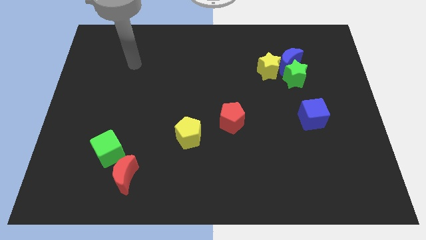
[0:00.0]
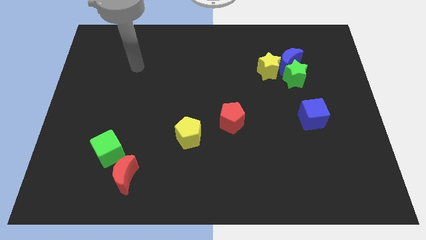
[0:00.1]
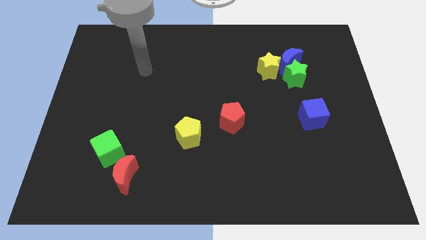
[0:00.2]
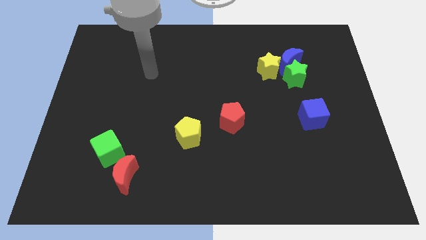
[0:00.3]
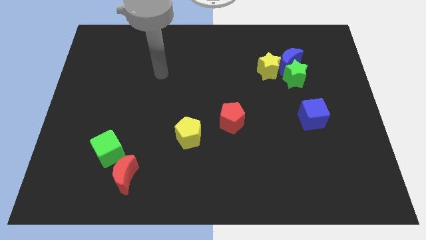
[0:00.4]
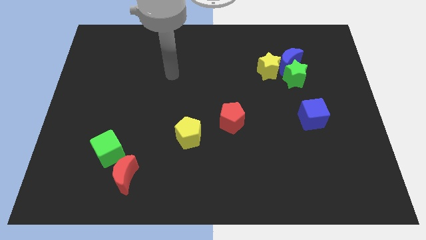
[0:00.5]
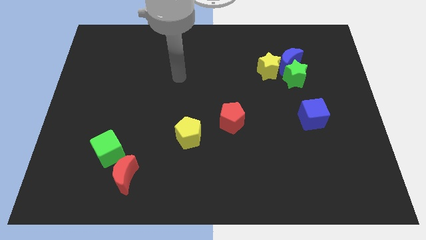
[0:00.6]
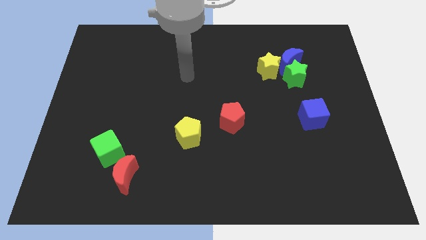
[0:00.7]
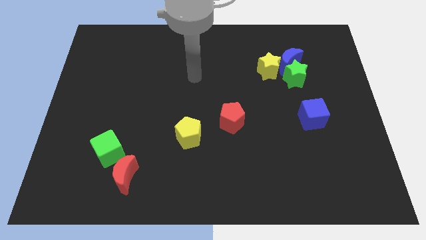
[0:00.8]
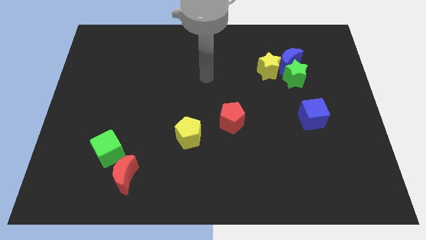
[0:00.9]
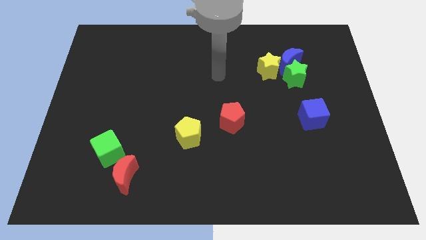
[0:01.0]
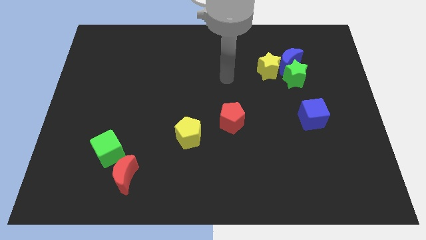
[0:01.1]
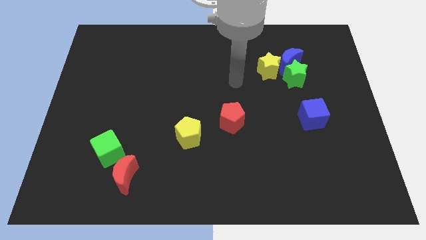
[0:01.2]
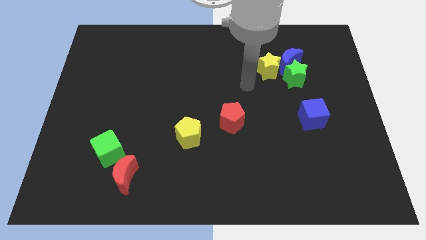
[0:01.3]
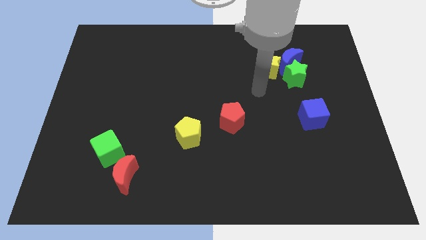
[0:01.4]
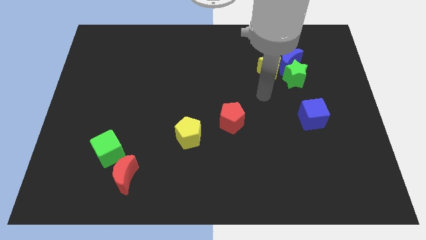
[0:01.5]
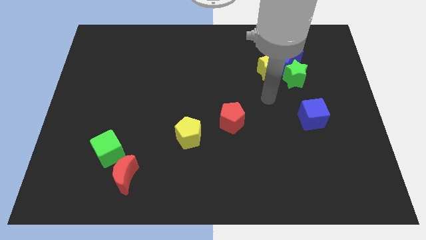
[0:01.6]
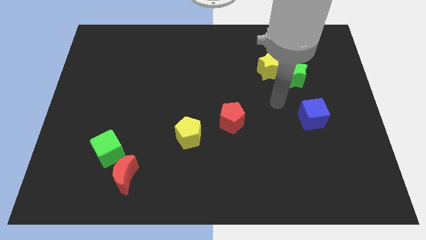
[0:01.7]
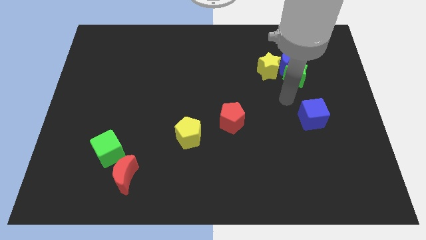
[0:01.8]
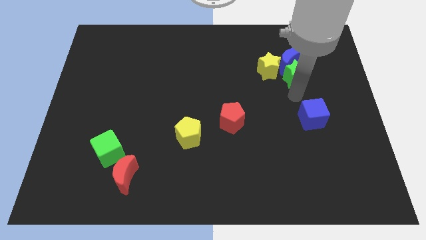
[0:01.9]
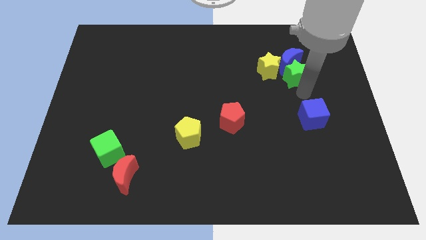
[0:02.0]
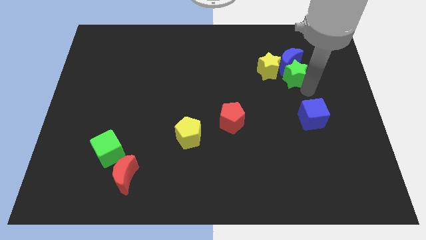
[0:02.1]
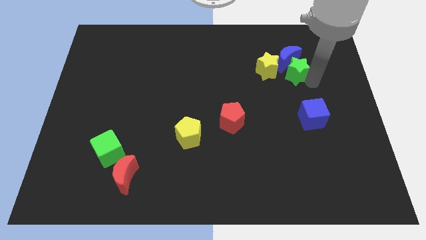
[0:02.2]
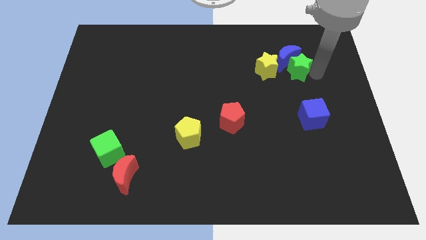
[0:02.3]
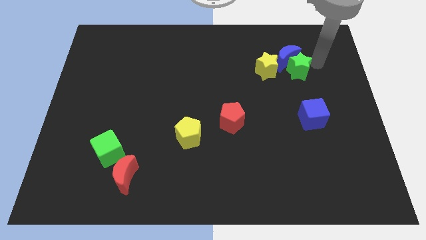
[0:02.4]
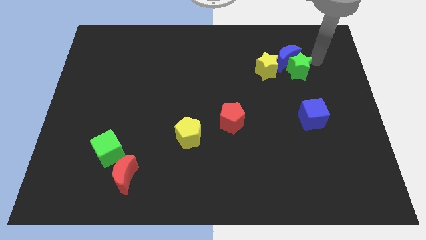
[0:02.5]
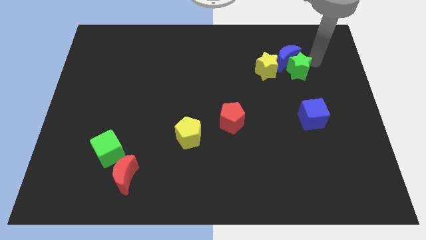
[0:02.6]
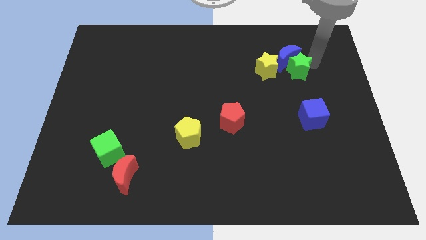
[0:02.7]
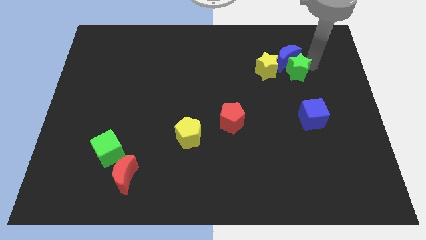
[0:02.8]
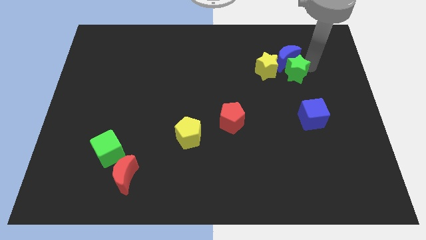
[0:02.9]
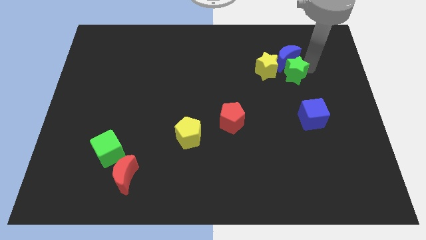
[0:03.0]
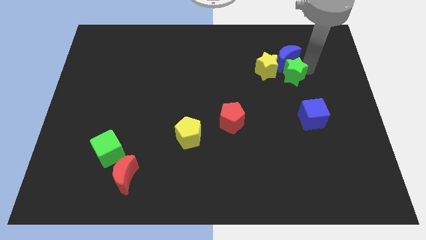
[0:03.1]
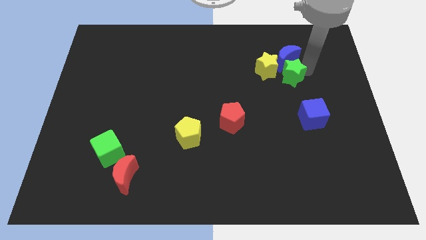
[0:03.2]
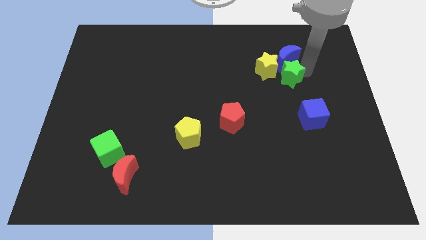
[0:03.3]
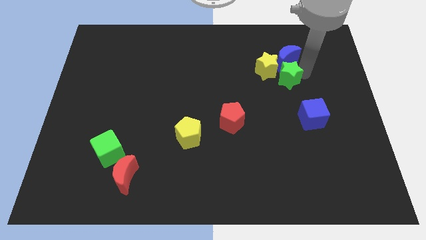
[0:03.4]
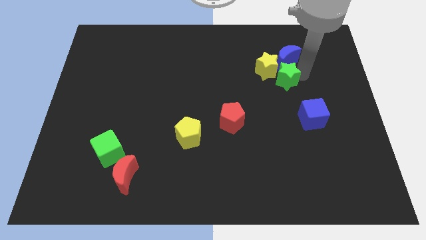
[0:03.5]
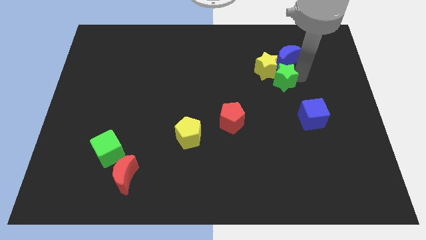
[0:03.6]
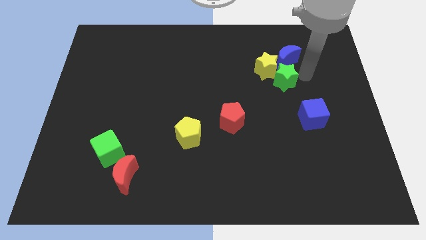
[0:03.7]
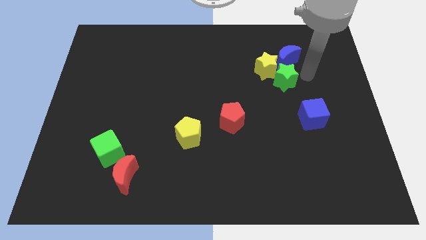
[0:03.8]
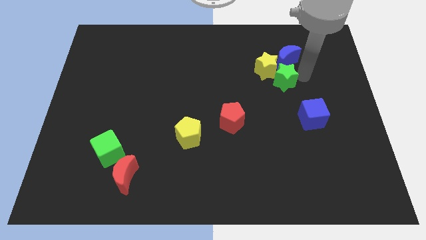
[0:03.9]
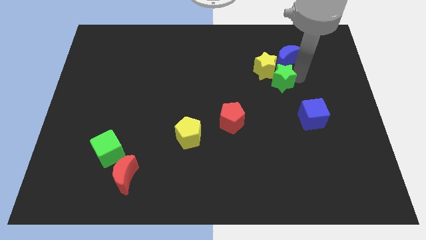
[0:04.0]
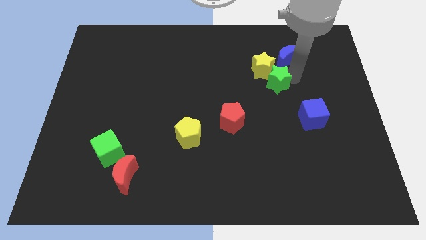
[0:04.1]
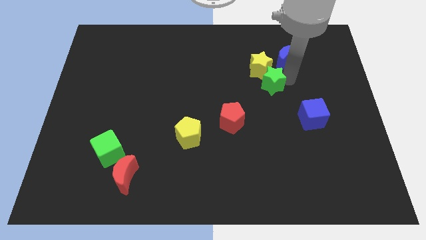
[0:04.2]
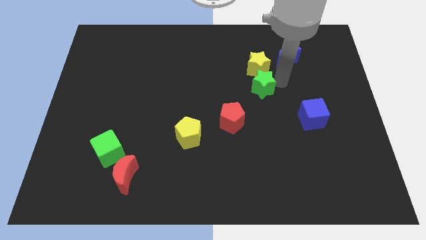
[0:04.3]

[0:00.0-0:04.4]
slide the green star diagonally down and to the left of the yellow star

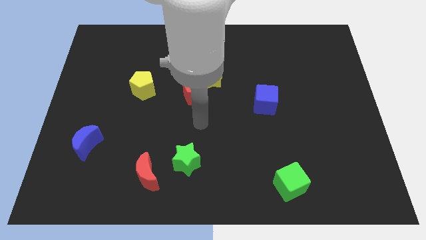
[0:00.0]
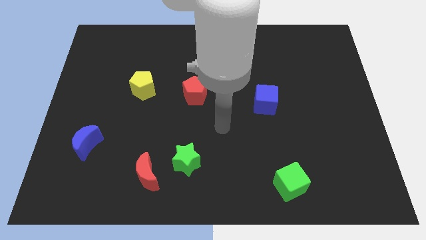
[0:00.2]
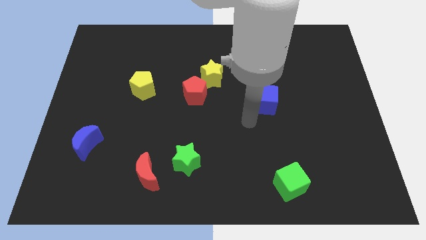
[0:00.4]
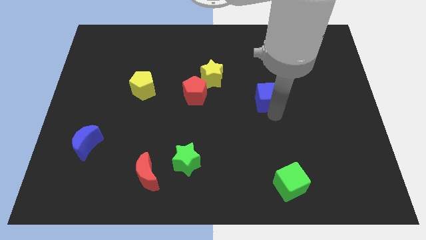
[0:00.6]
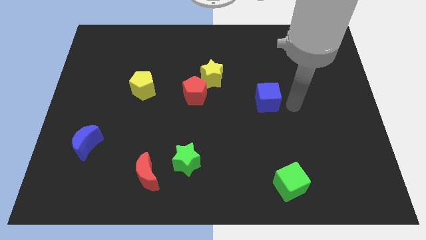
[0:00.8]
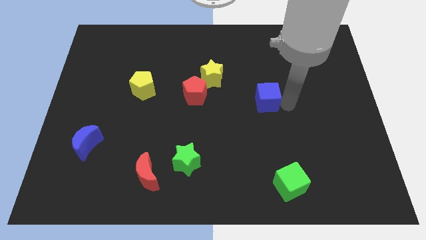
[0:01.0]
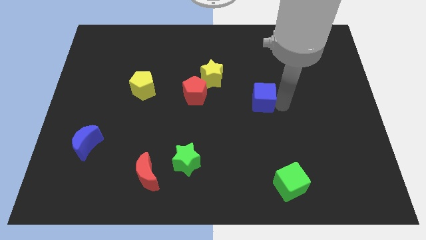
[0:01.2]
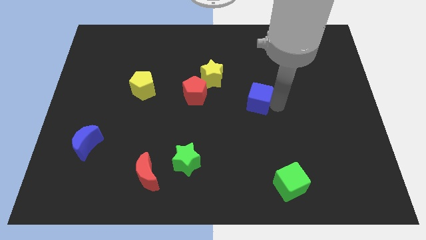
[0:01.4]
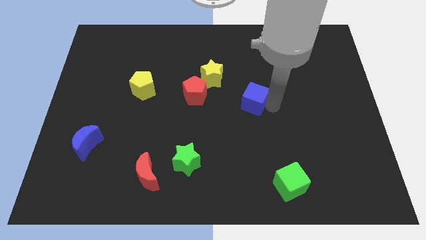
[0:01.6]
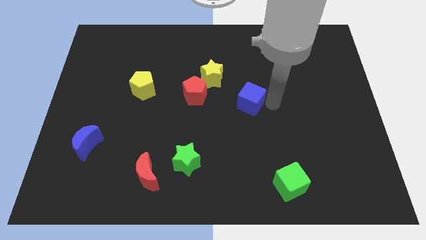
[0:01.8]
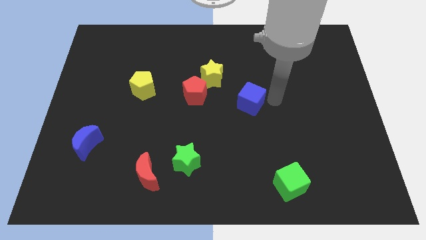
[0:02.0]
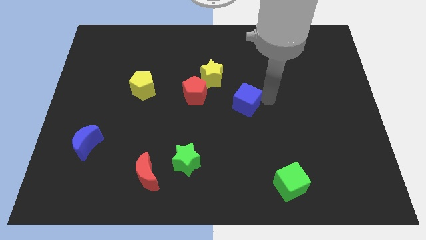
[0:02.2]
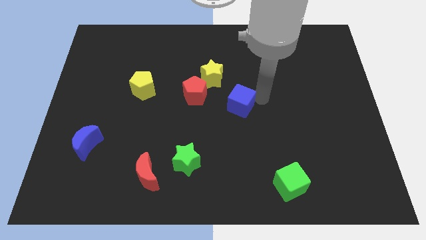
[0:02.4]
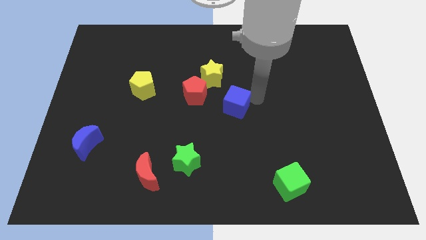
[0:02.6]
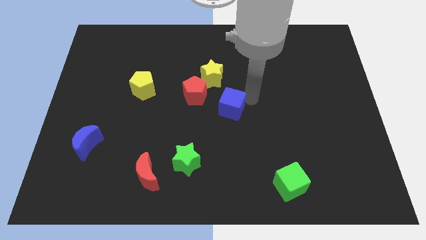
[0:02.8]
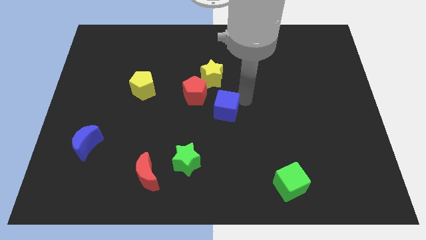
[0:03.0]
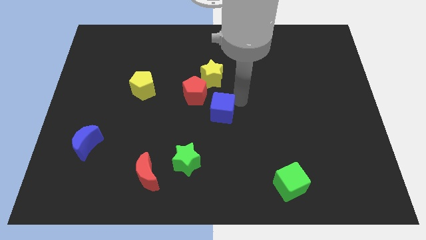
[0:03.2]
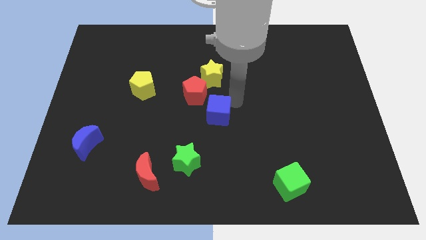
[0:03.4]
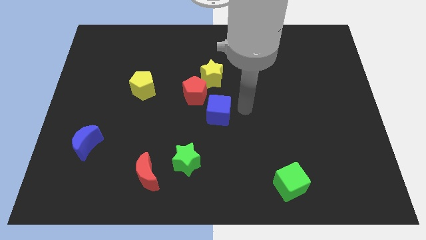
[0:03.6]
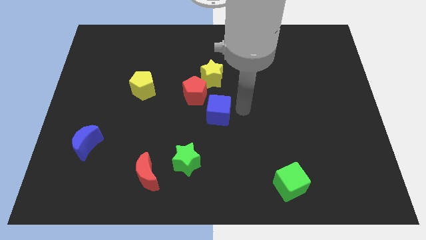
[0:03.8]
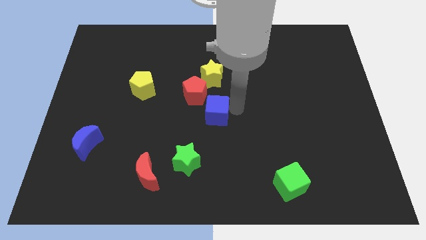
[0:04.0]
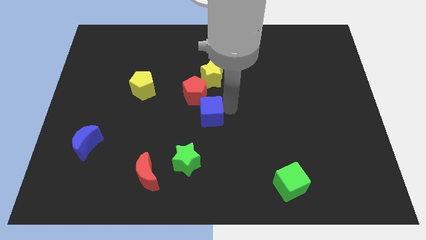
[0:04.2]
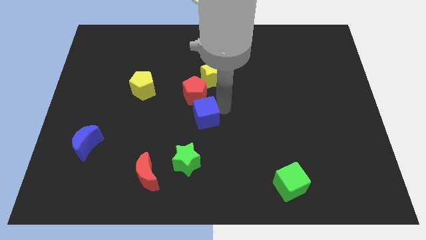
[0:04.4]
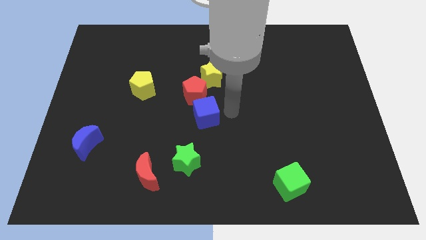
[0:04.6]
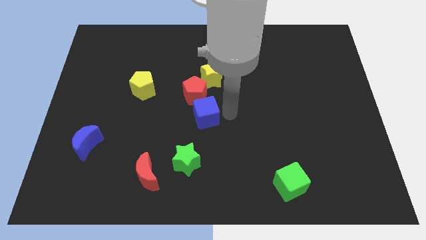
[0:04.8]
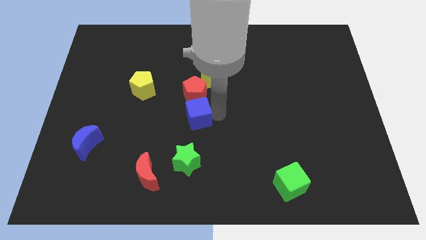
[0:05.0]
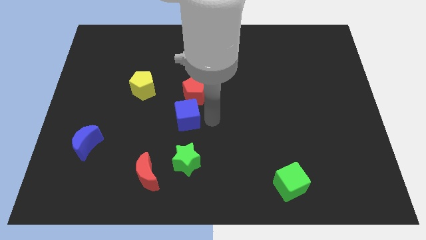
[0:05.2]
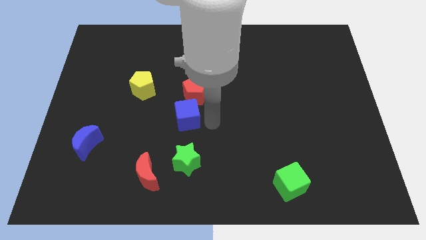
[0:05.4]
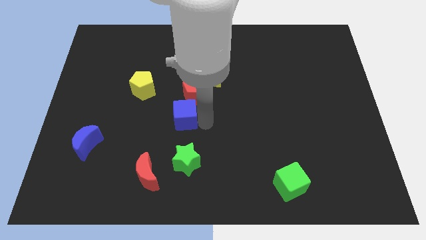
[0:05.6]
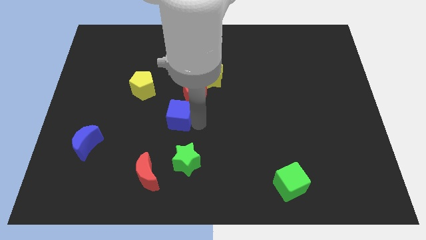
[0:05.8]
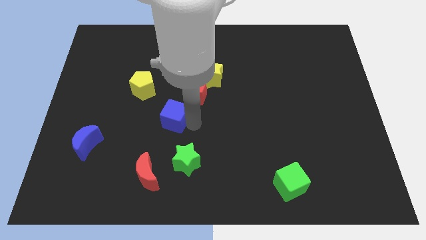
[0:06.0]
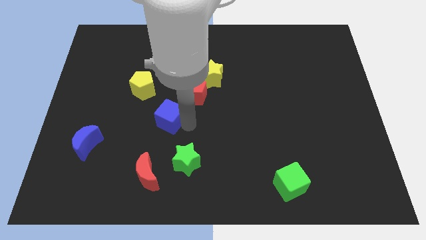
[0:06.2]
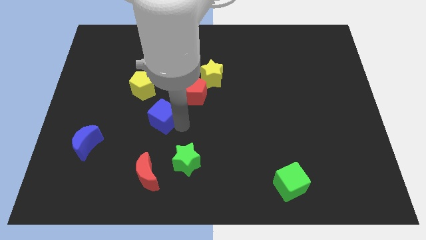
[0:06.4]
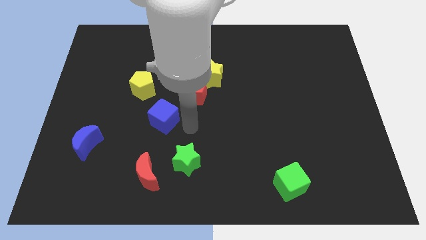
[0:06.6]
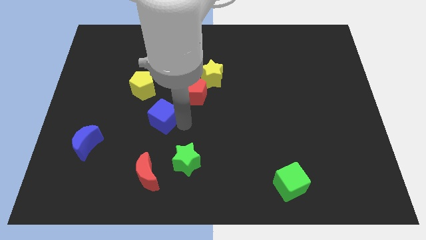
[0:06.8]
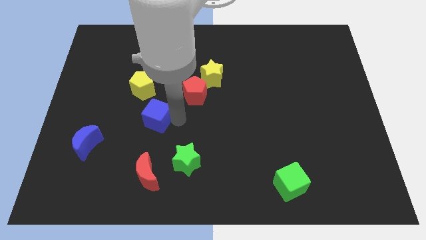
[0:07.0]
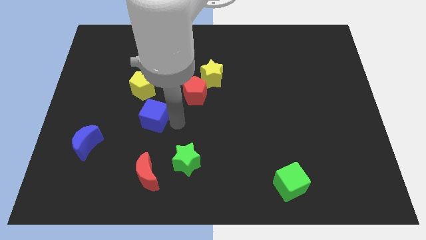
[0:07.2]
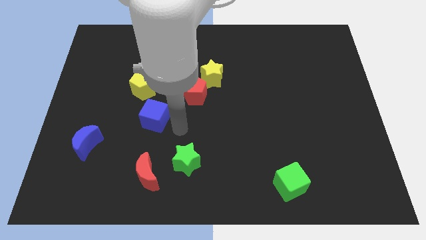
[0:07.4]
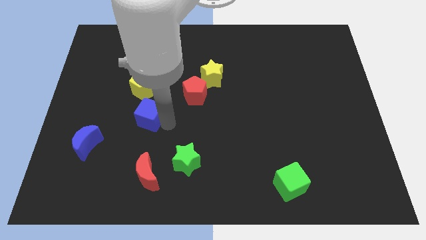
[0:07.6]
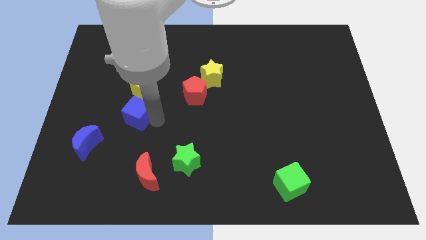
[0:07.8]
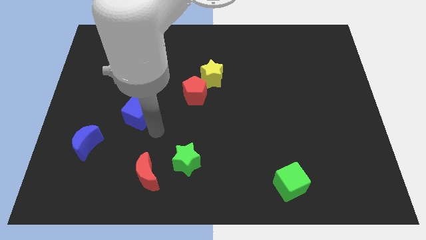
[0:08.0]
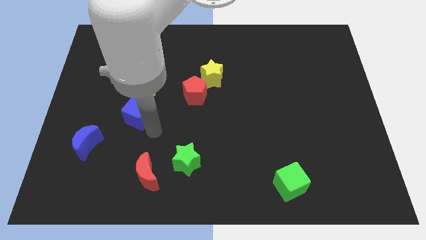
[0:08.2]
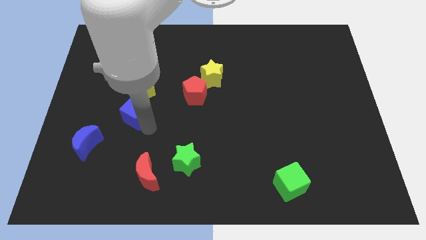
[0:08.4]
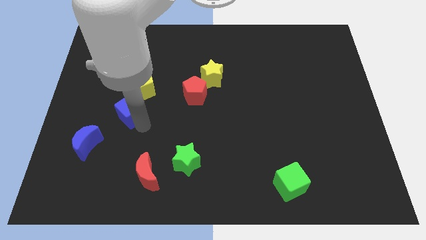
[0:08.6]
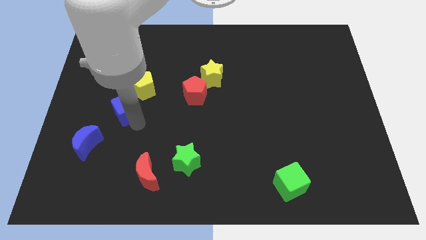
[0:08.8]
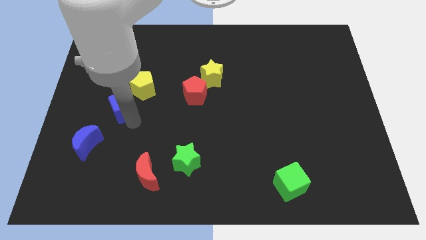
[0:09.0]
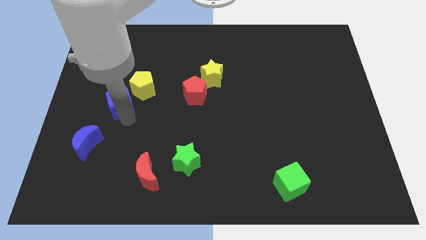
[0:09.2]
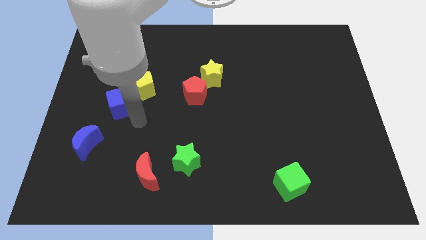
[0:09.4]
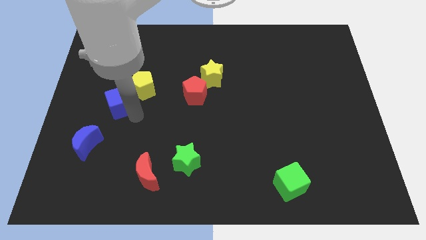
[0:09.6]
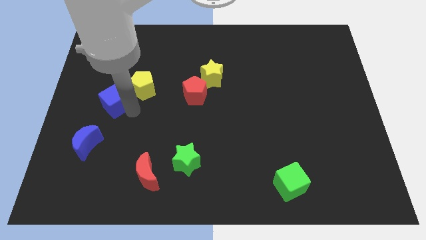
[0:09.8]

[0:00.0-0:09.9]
move the blue cube to the left of the yellow pentagon
